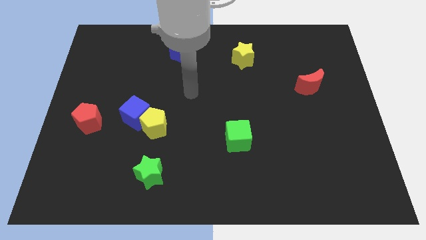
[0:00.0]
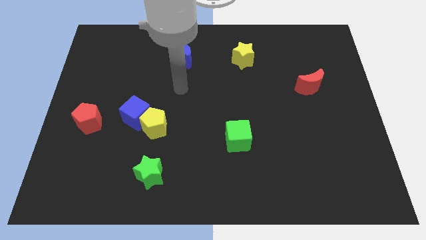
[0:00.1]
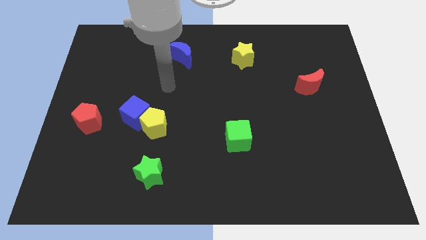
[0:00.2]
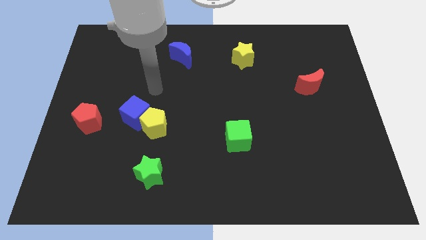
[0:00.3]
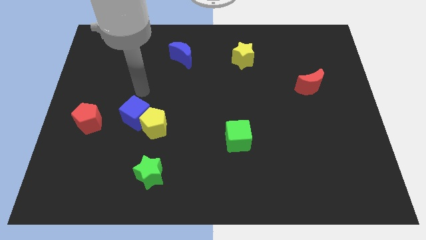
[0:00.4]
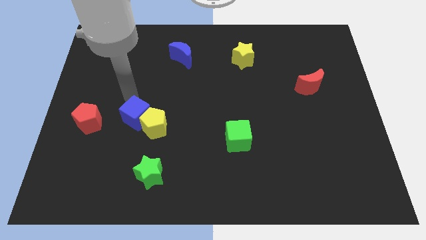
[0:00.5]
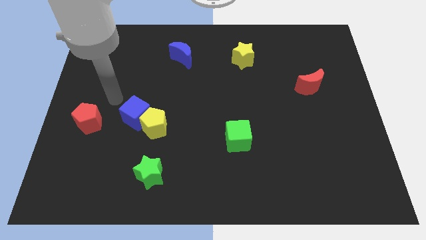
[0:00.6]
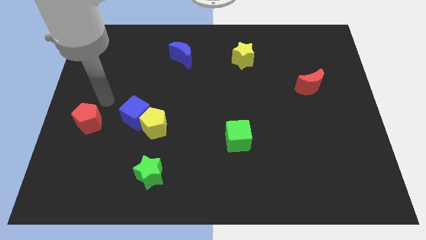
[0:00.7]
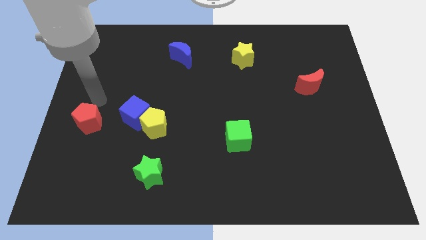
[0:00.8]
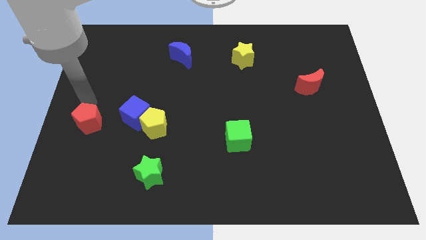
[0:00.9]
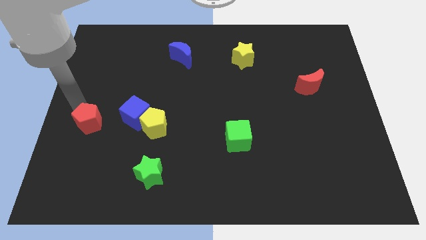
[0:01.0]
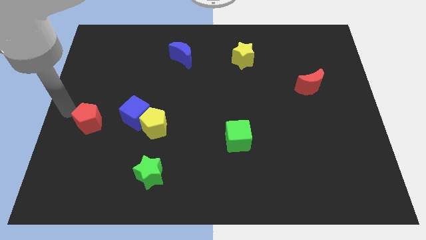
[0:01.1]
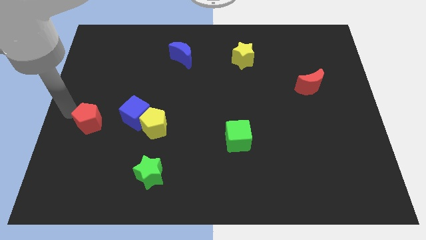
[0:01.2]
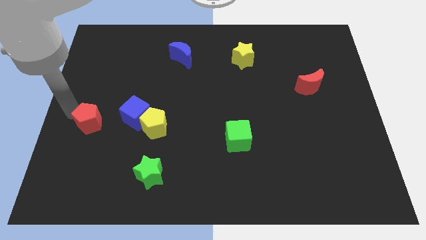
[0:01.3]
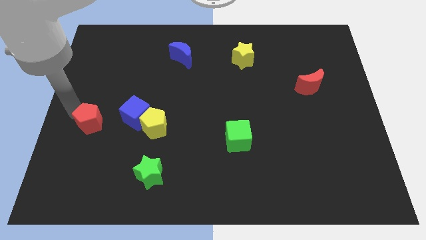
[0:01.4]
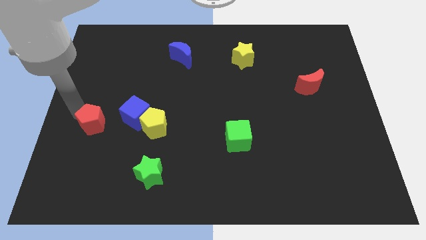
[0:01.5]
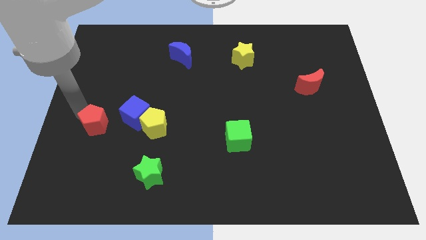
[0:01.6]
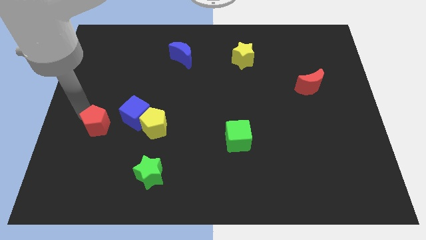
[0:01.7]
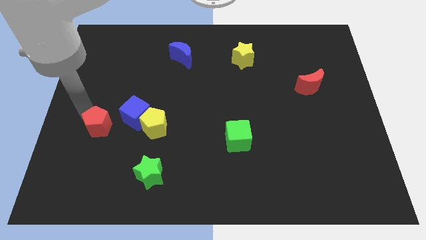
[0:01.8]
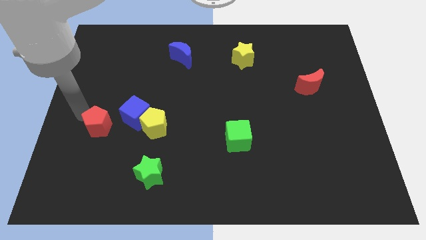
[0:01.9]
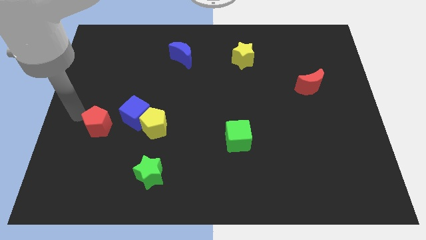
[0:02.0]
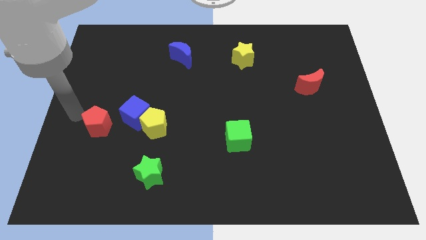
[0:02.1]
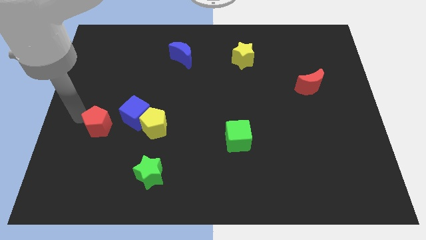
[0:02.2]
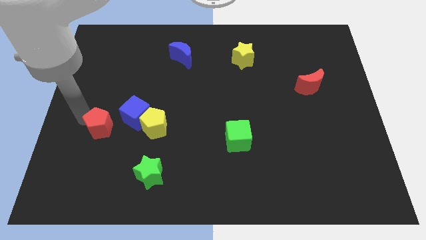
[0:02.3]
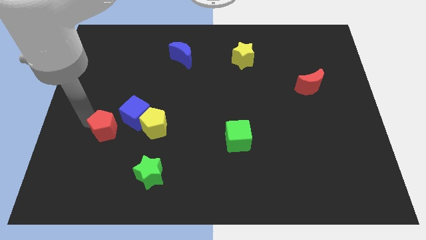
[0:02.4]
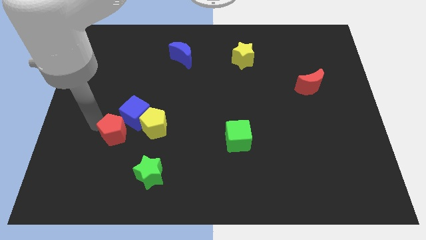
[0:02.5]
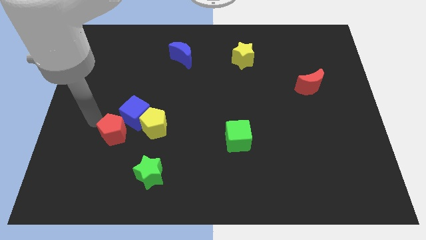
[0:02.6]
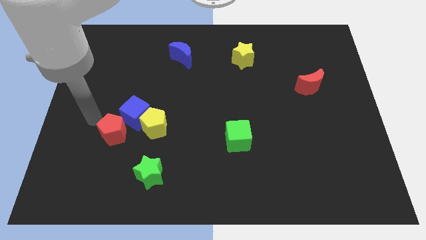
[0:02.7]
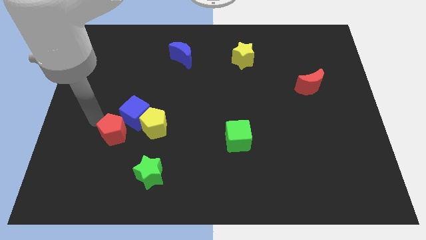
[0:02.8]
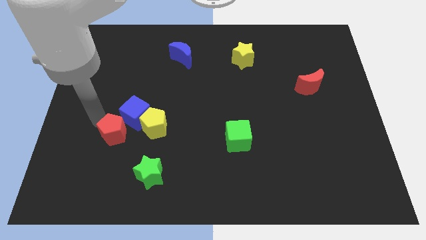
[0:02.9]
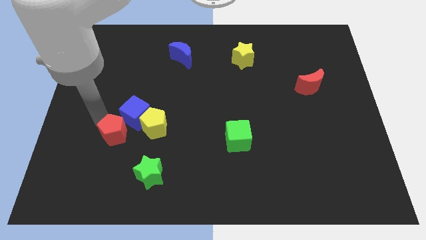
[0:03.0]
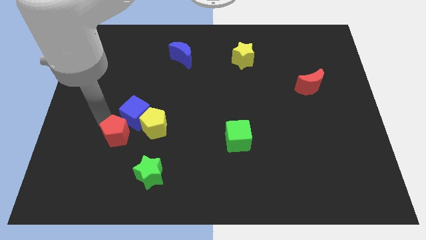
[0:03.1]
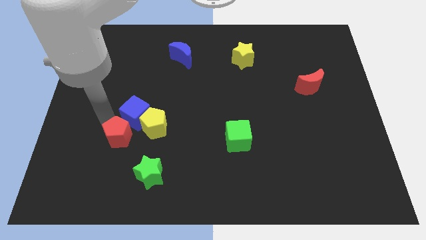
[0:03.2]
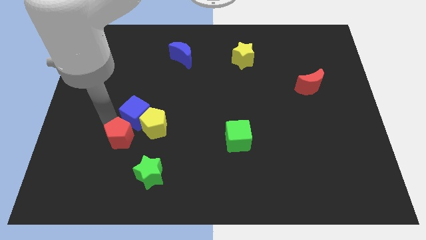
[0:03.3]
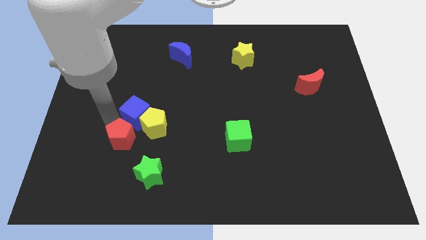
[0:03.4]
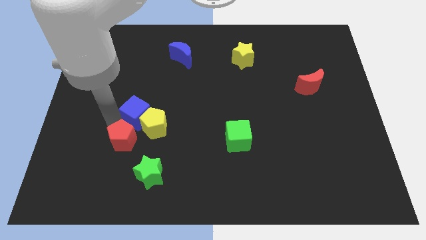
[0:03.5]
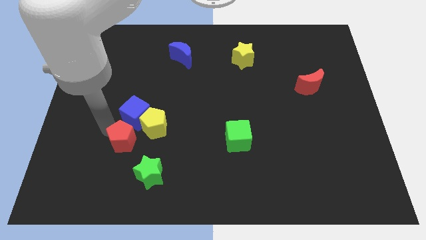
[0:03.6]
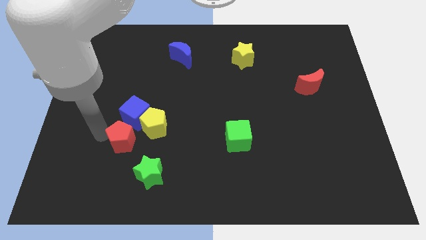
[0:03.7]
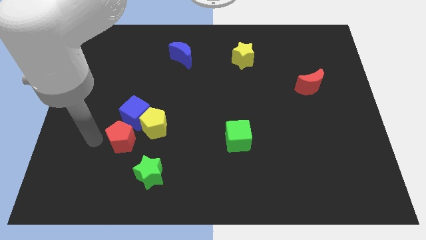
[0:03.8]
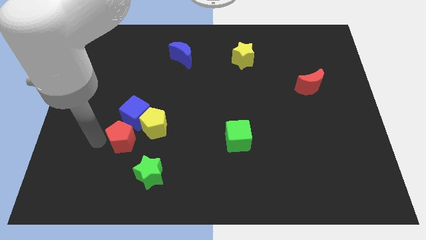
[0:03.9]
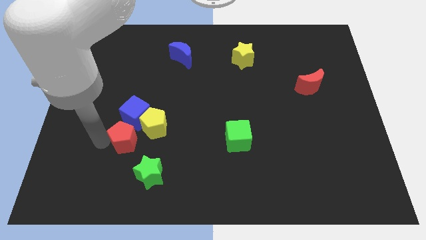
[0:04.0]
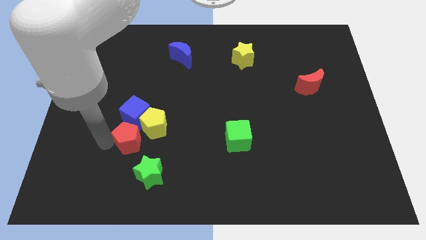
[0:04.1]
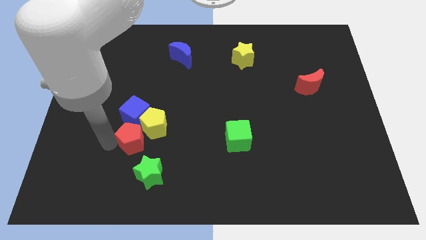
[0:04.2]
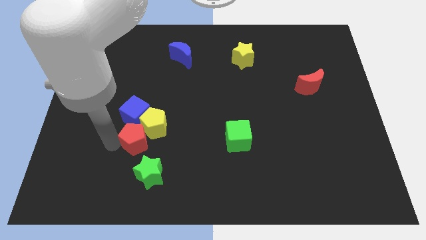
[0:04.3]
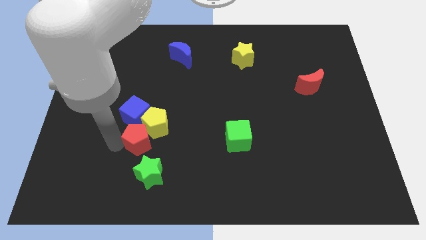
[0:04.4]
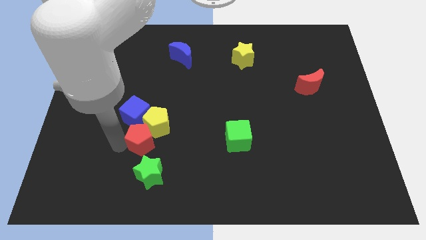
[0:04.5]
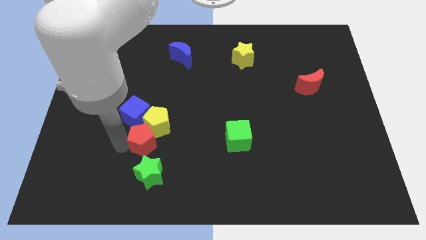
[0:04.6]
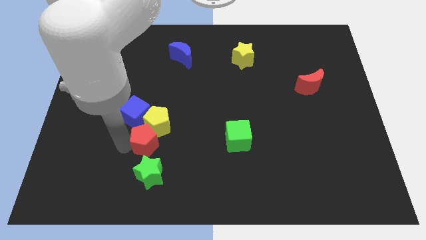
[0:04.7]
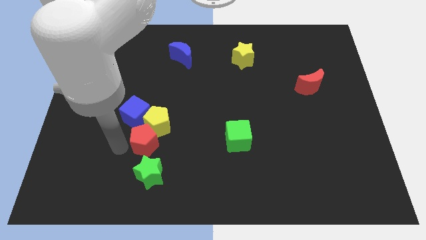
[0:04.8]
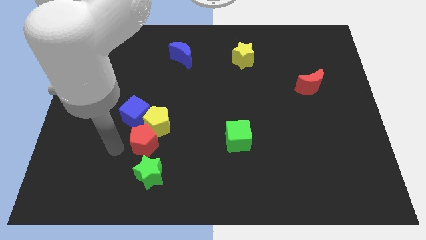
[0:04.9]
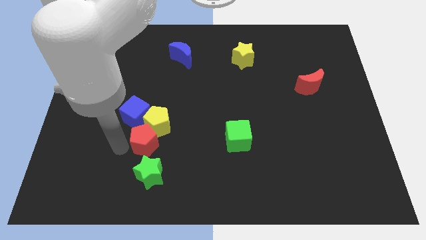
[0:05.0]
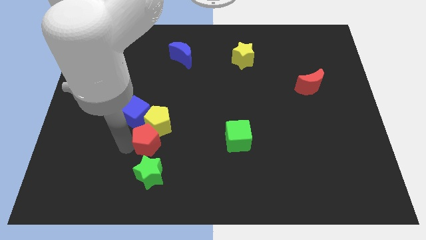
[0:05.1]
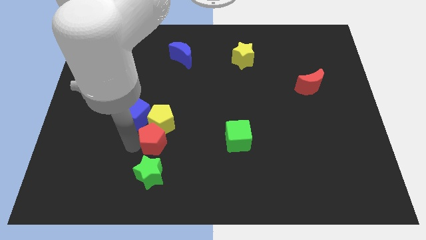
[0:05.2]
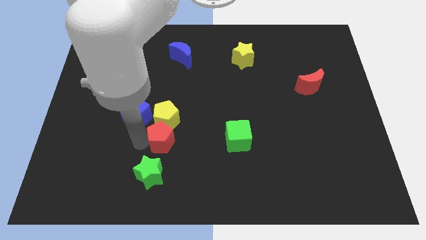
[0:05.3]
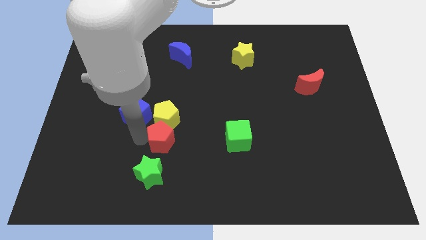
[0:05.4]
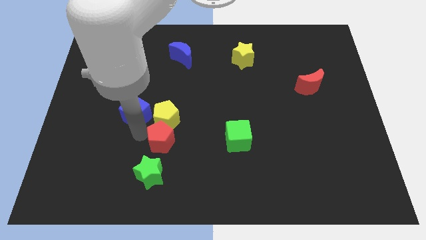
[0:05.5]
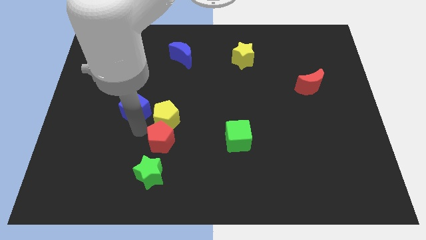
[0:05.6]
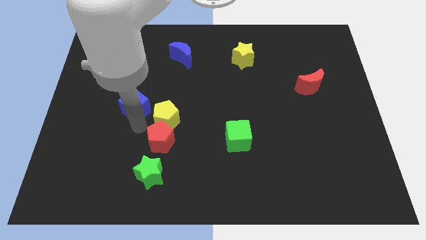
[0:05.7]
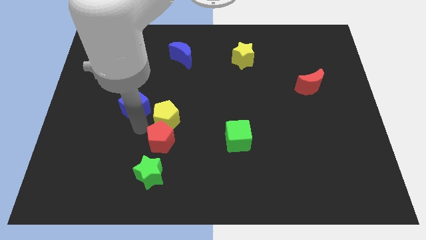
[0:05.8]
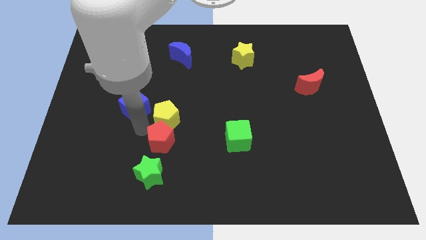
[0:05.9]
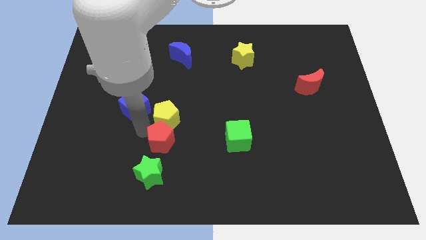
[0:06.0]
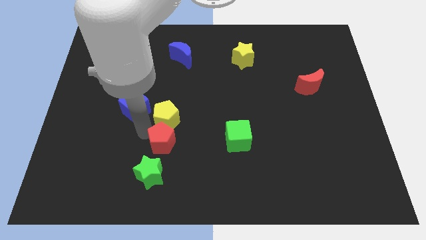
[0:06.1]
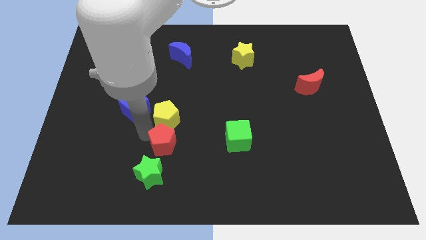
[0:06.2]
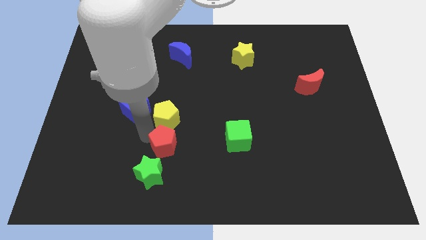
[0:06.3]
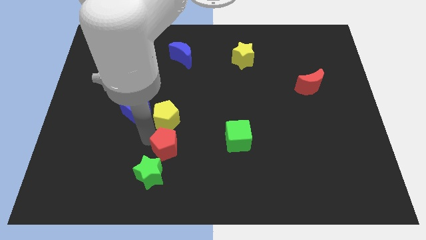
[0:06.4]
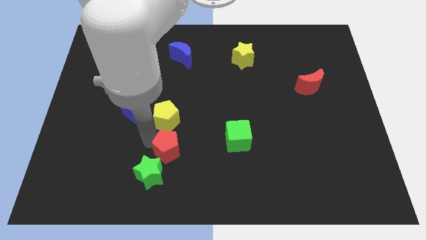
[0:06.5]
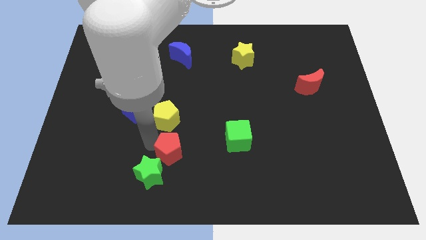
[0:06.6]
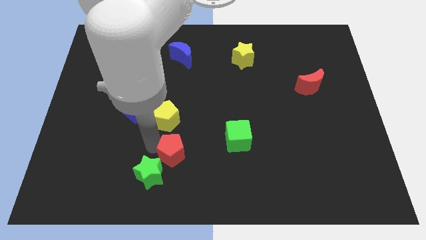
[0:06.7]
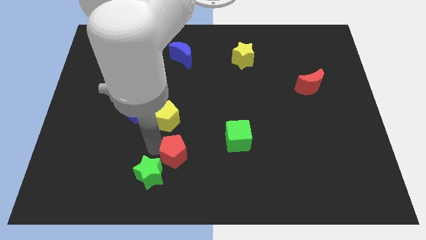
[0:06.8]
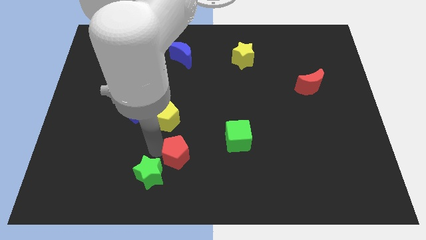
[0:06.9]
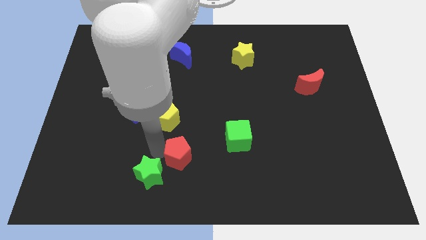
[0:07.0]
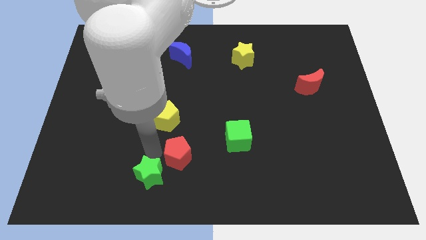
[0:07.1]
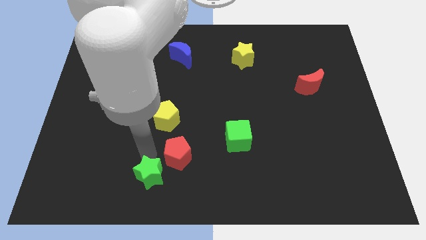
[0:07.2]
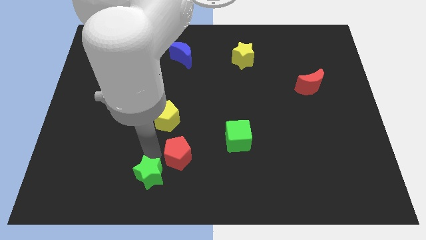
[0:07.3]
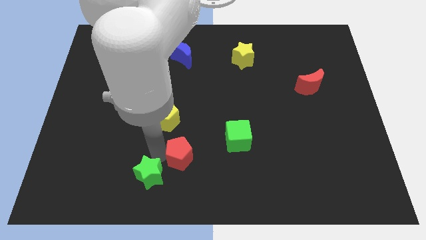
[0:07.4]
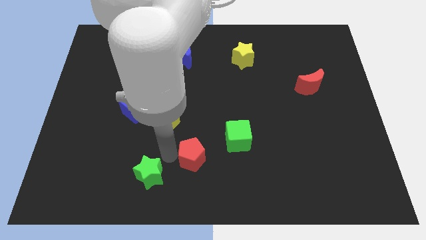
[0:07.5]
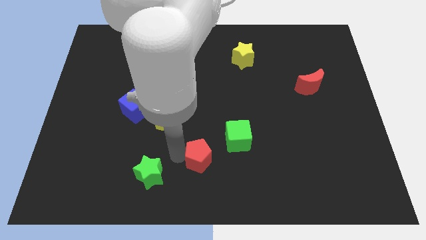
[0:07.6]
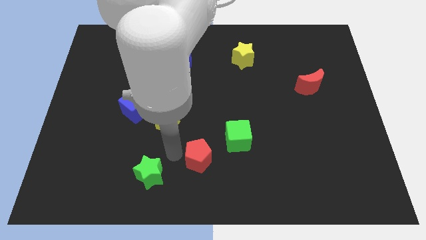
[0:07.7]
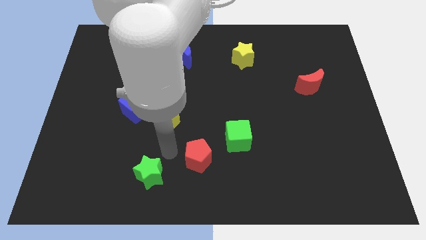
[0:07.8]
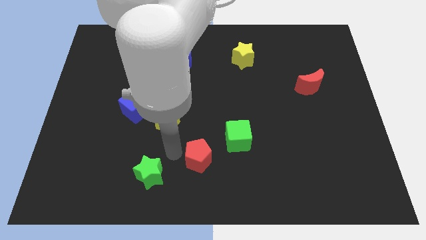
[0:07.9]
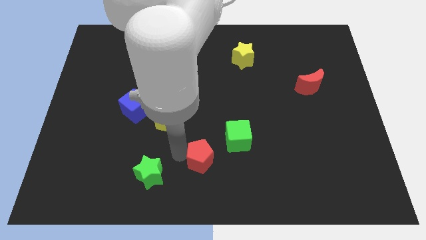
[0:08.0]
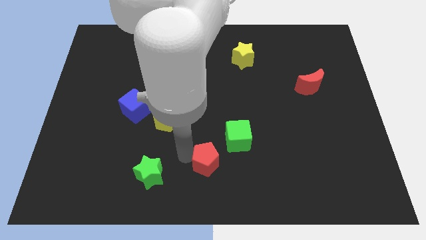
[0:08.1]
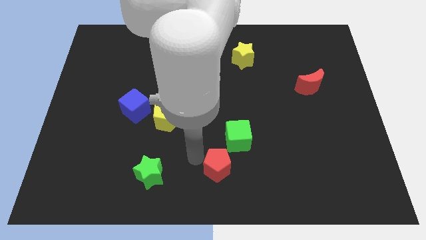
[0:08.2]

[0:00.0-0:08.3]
slide the red pentagon to the bottom side of the green cube
